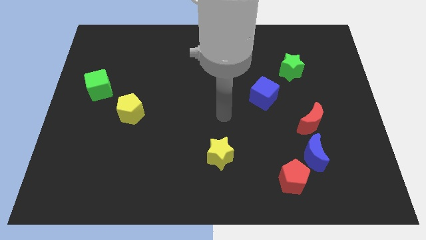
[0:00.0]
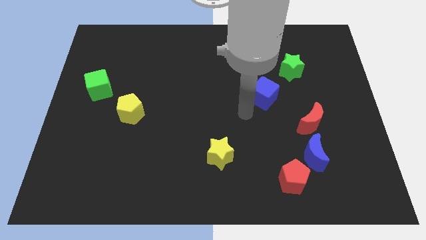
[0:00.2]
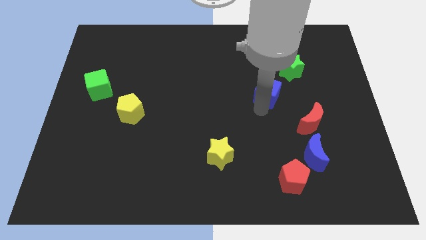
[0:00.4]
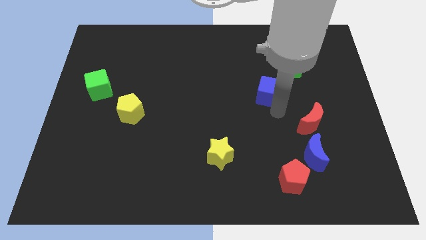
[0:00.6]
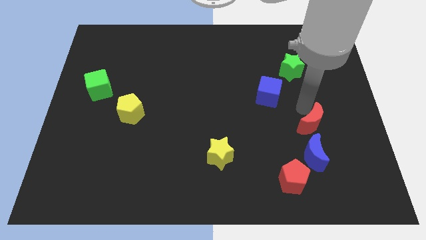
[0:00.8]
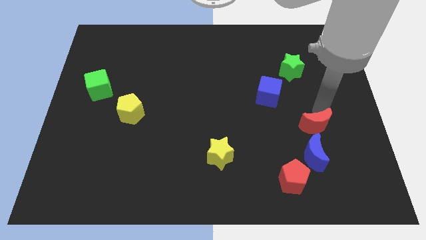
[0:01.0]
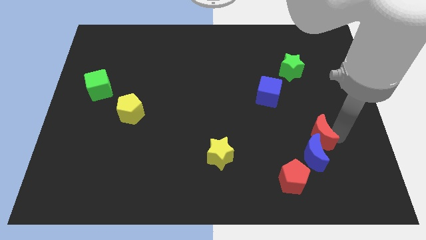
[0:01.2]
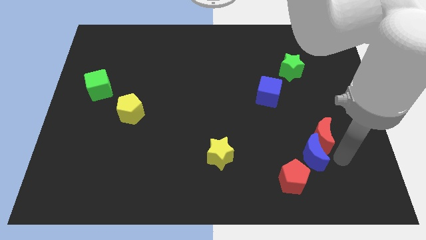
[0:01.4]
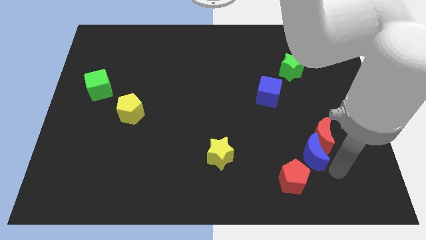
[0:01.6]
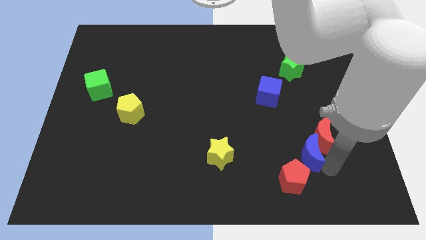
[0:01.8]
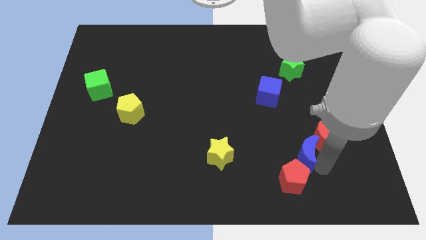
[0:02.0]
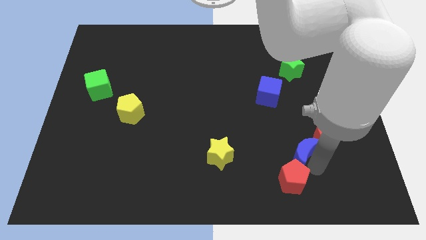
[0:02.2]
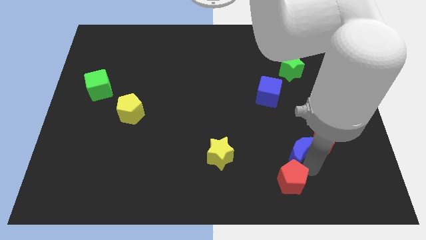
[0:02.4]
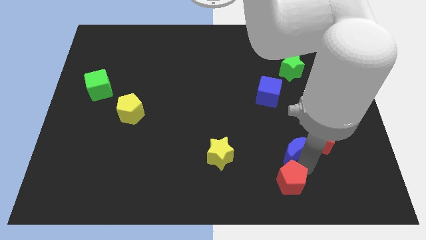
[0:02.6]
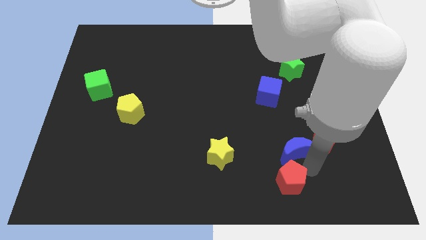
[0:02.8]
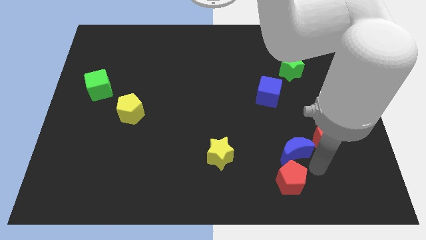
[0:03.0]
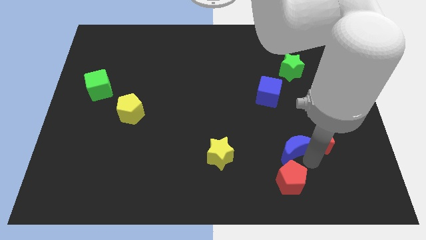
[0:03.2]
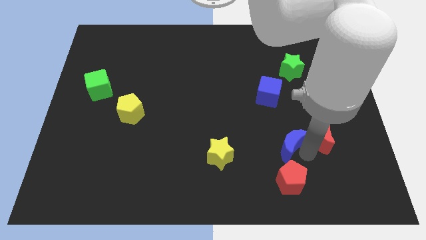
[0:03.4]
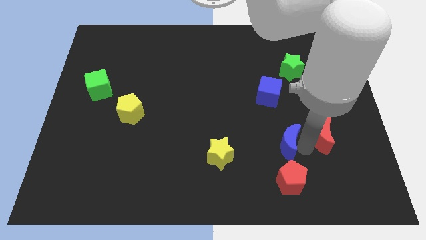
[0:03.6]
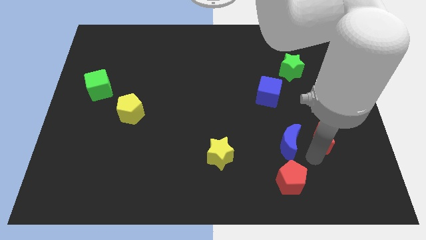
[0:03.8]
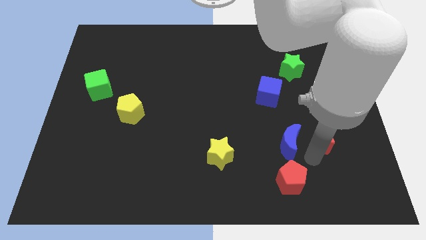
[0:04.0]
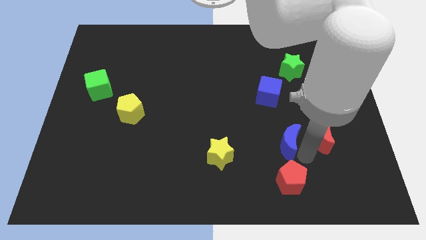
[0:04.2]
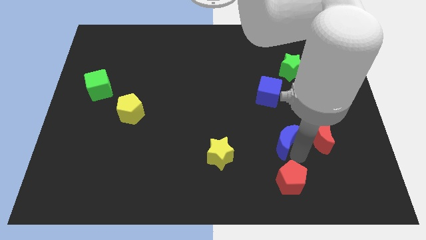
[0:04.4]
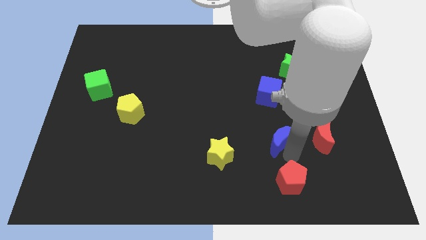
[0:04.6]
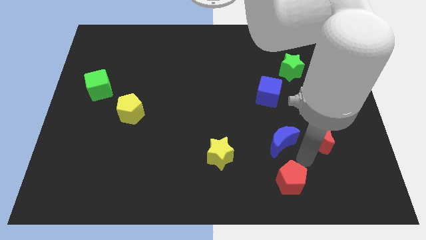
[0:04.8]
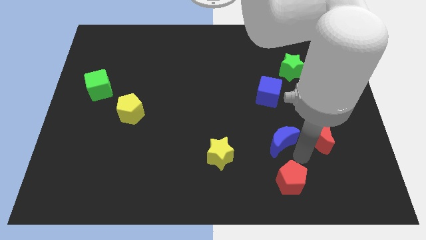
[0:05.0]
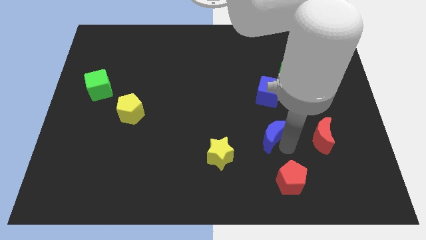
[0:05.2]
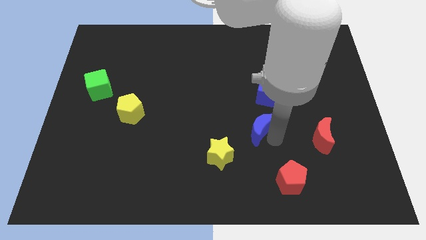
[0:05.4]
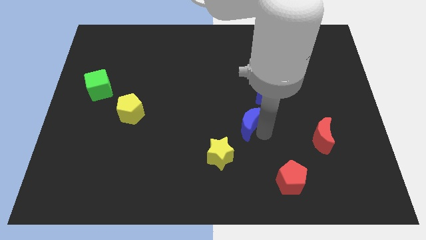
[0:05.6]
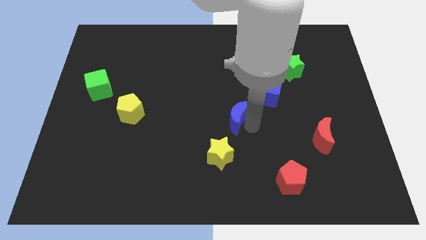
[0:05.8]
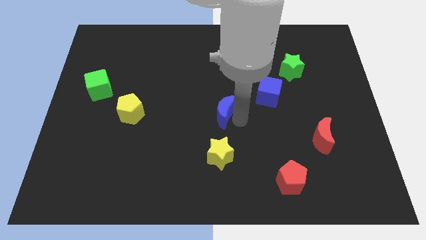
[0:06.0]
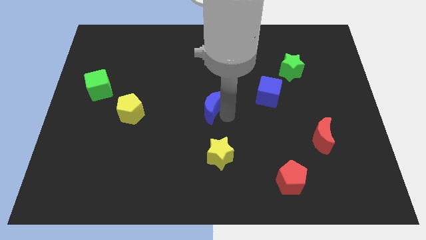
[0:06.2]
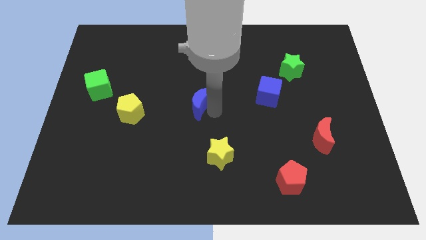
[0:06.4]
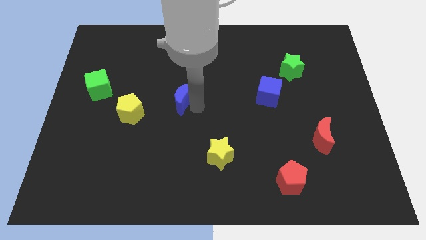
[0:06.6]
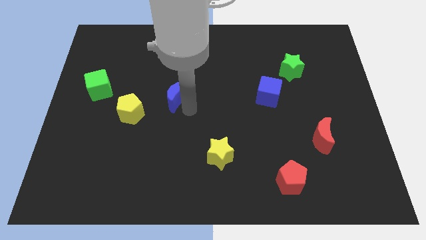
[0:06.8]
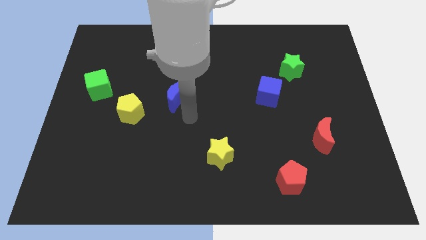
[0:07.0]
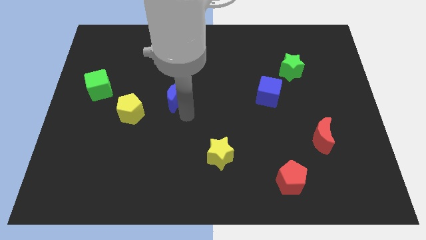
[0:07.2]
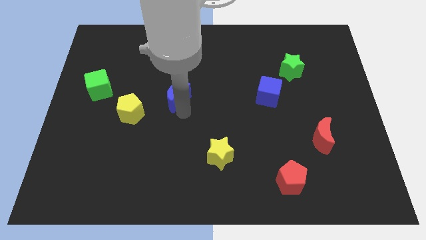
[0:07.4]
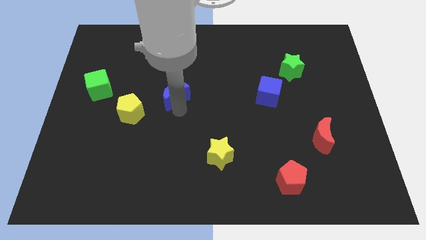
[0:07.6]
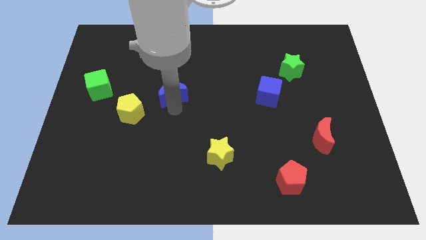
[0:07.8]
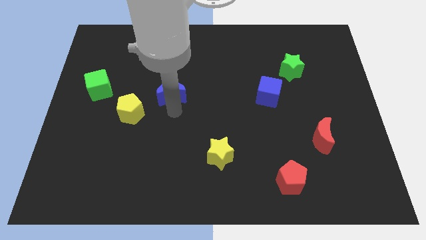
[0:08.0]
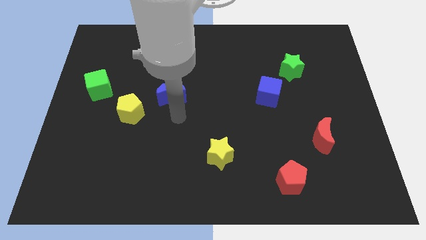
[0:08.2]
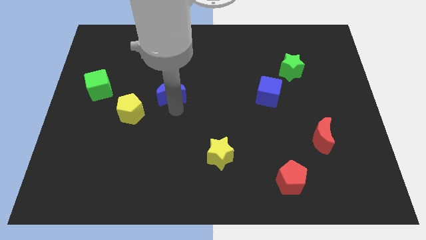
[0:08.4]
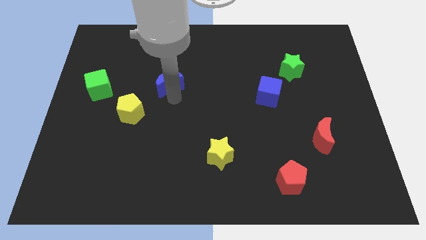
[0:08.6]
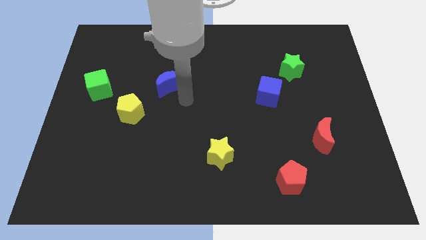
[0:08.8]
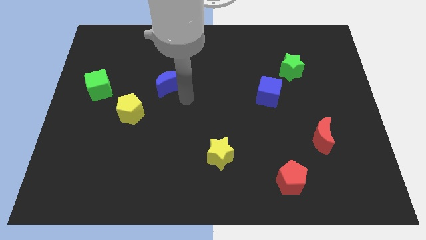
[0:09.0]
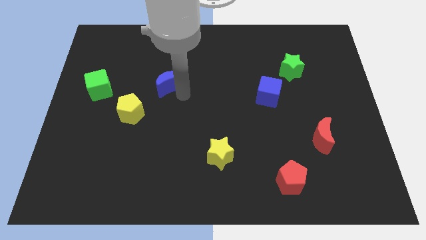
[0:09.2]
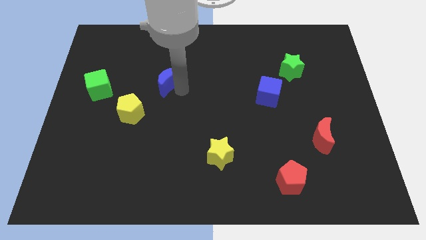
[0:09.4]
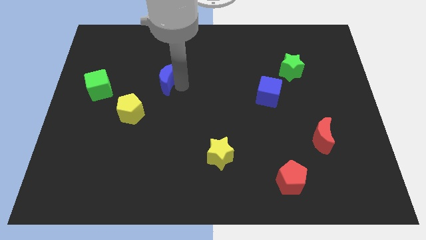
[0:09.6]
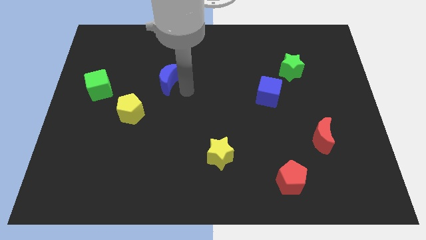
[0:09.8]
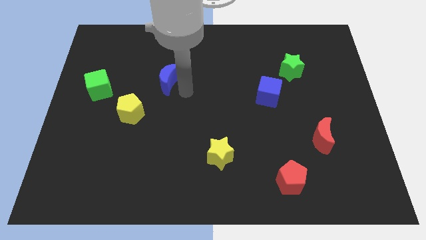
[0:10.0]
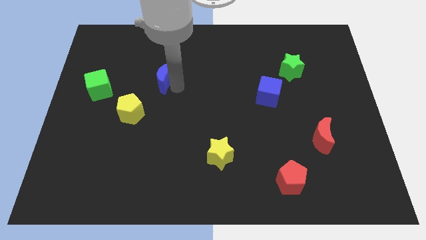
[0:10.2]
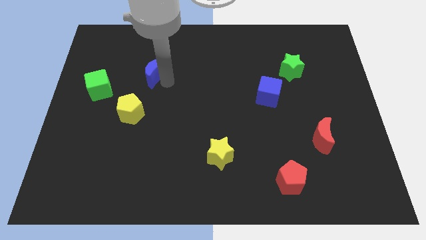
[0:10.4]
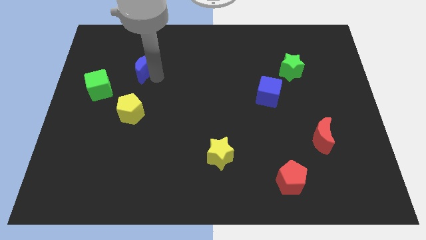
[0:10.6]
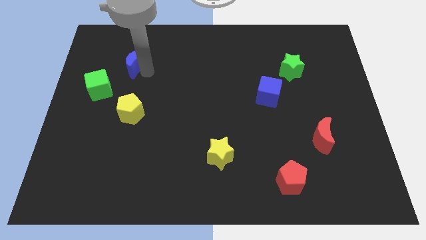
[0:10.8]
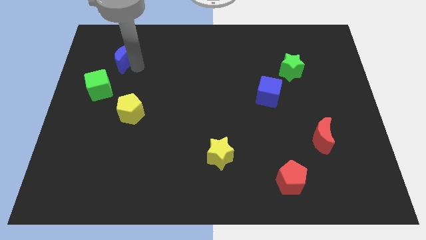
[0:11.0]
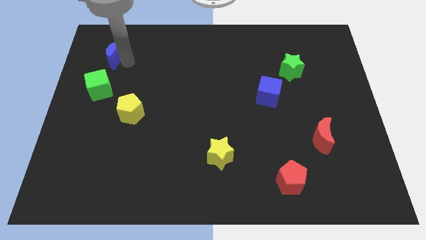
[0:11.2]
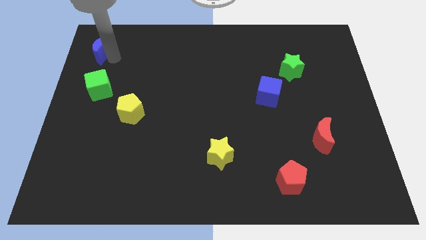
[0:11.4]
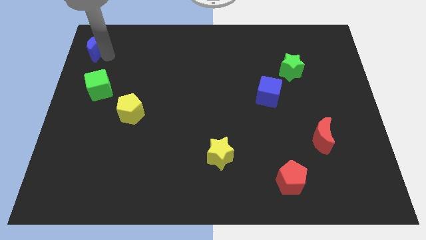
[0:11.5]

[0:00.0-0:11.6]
push the blue moon to the top left of the board

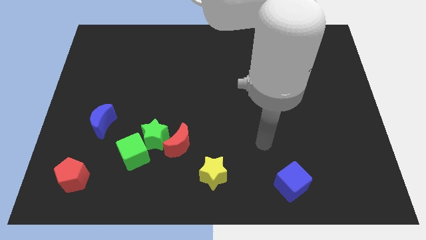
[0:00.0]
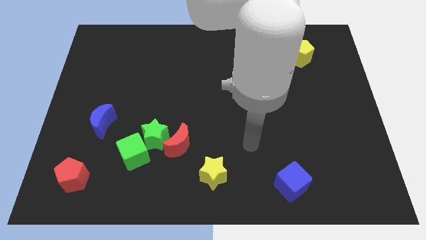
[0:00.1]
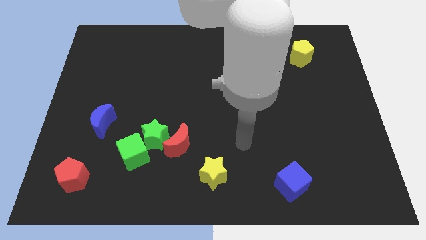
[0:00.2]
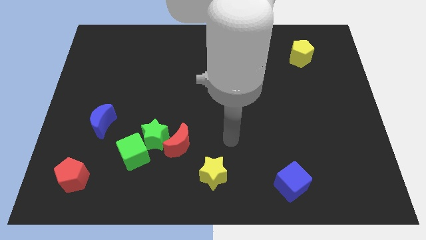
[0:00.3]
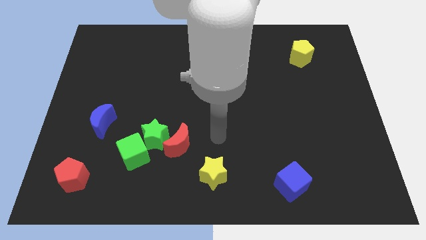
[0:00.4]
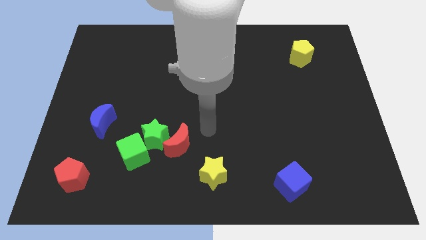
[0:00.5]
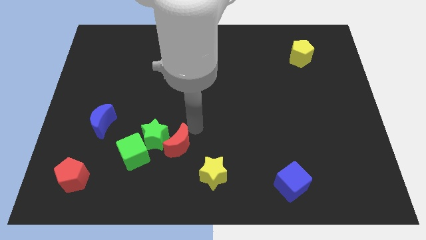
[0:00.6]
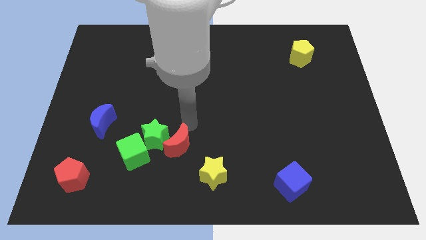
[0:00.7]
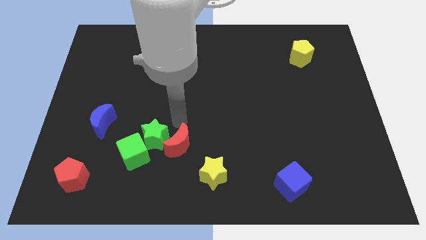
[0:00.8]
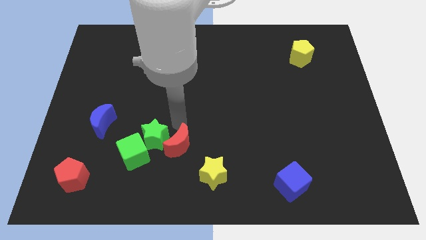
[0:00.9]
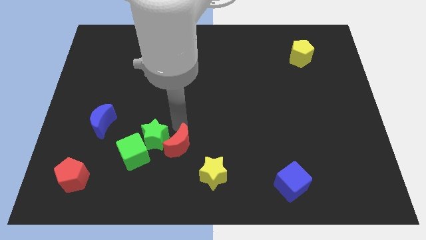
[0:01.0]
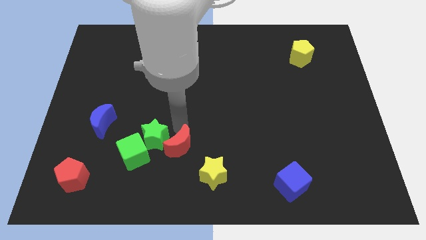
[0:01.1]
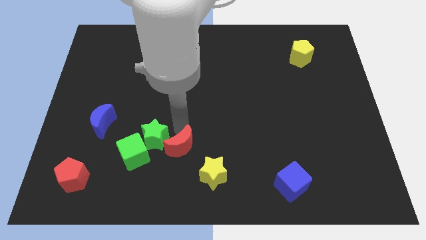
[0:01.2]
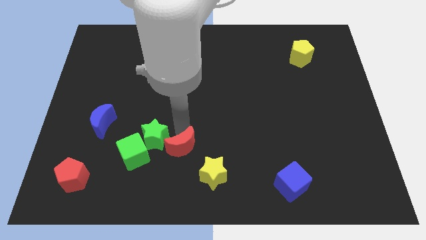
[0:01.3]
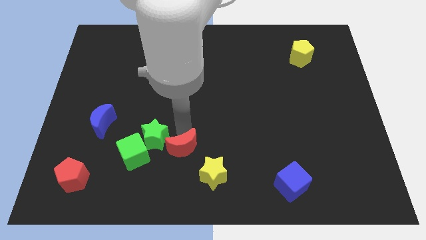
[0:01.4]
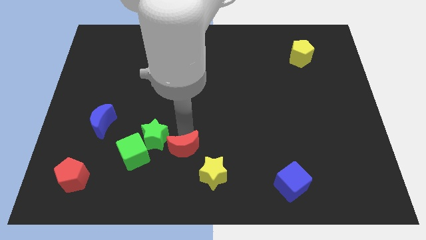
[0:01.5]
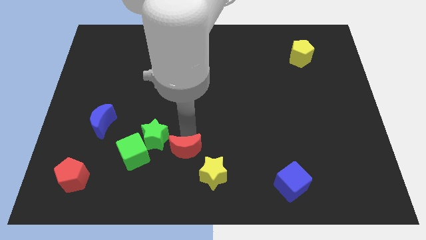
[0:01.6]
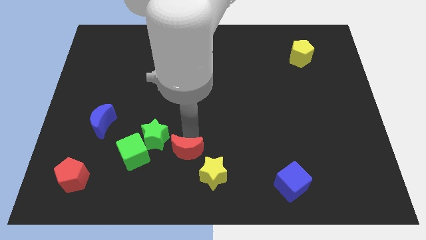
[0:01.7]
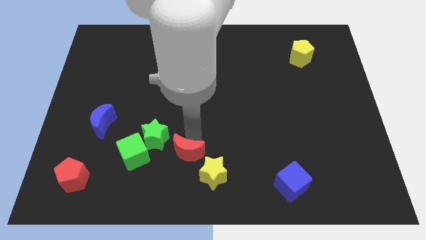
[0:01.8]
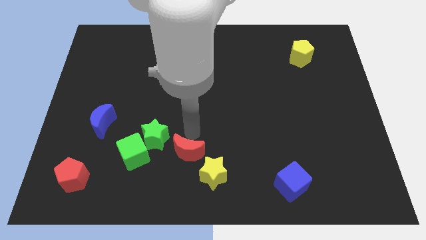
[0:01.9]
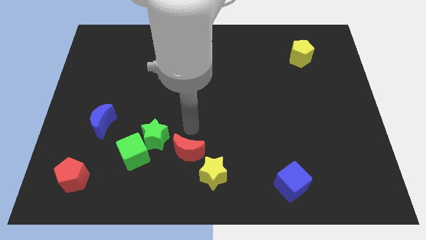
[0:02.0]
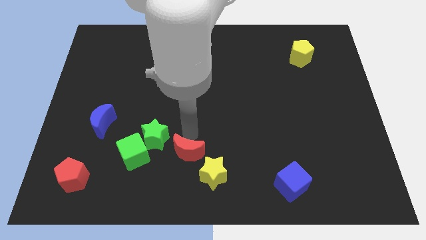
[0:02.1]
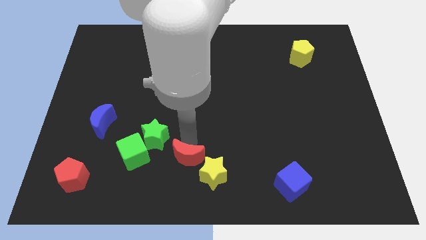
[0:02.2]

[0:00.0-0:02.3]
put the red moon to the bottom side
